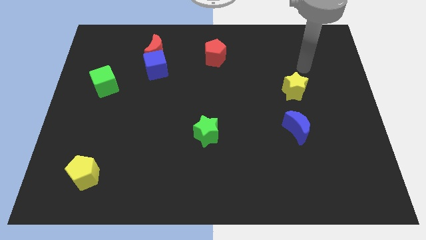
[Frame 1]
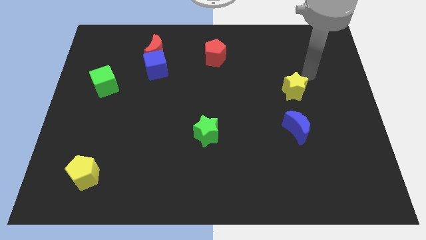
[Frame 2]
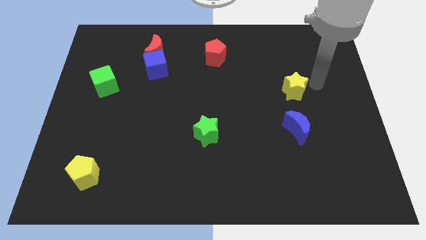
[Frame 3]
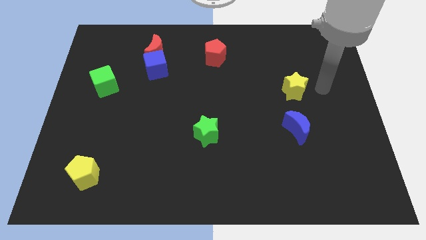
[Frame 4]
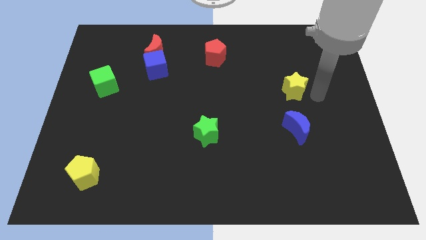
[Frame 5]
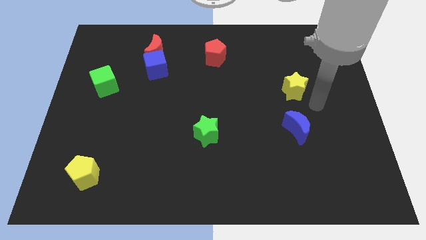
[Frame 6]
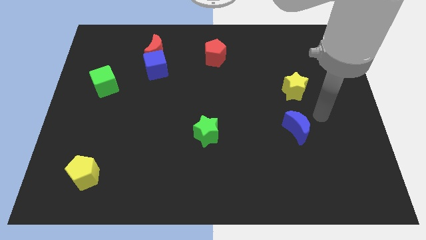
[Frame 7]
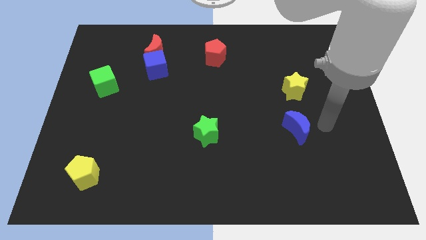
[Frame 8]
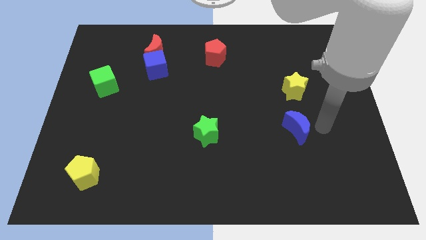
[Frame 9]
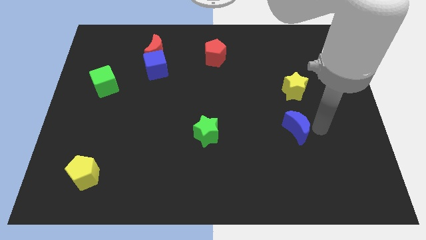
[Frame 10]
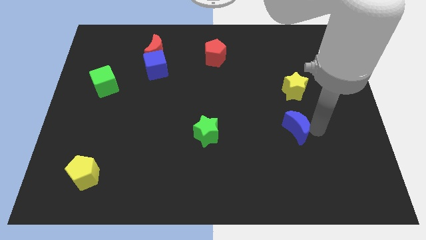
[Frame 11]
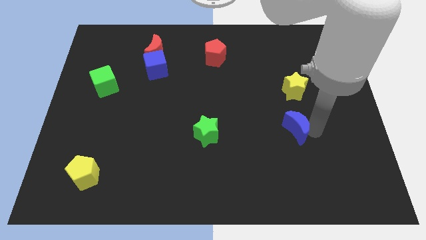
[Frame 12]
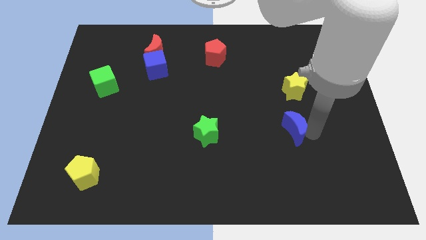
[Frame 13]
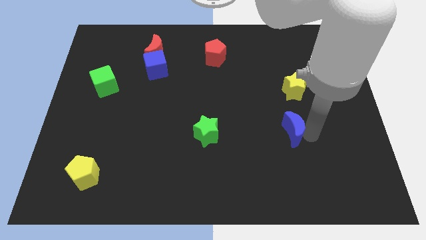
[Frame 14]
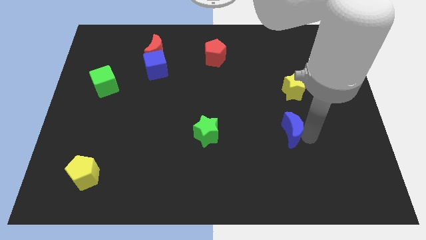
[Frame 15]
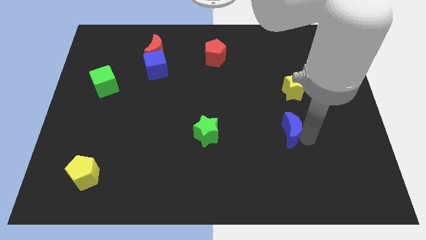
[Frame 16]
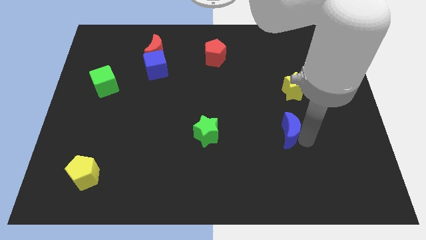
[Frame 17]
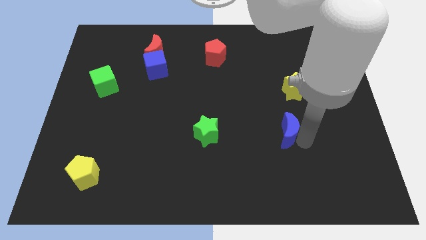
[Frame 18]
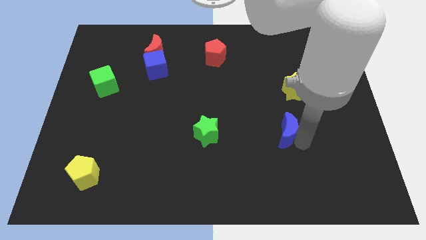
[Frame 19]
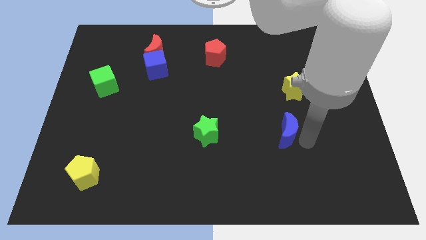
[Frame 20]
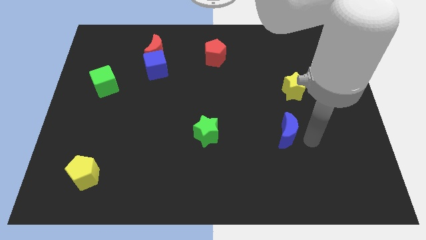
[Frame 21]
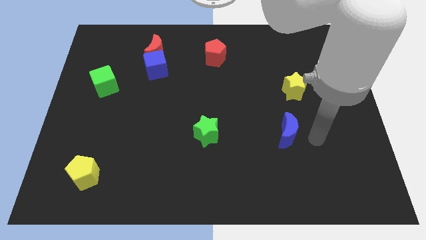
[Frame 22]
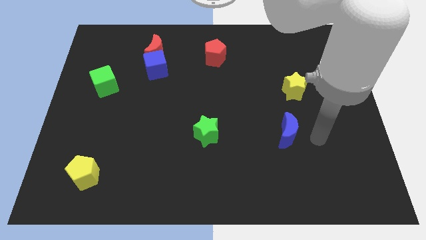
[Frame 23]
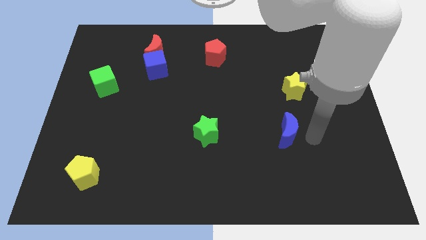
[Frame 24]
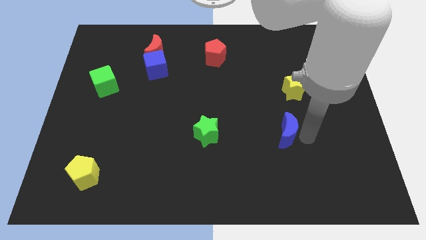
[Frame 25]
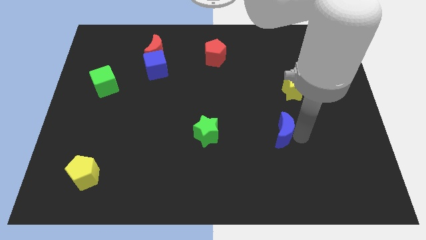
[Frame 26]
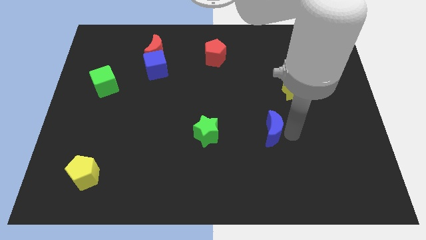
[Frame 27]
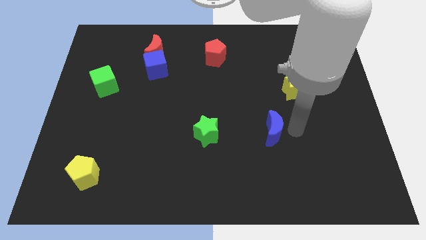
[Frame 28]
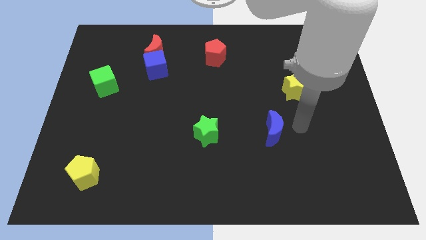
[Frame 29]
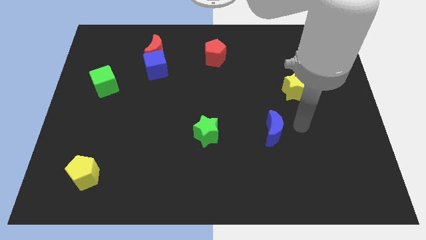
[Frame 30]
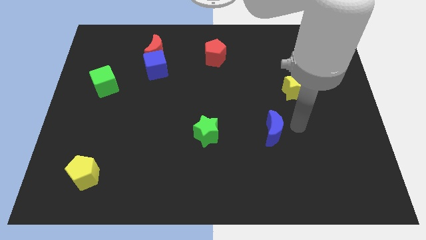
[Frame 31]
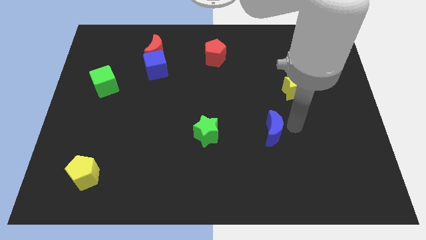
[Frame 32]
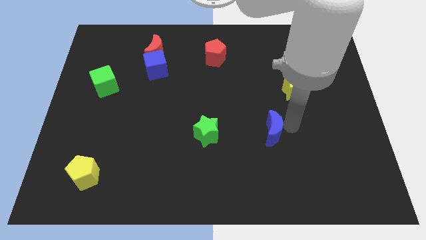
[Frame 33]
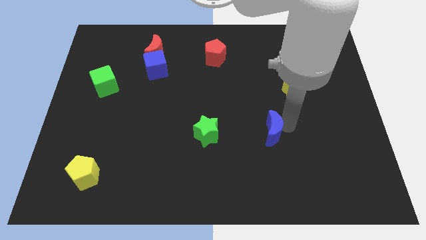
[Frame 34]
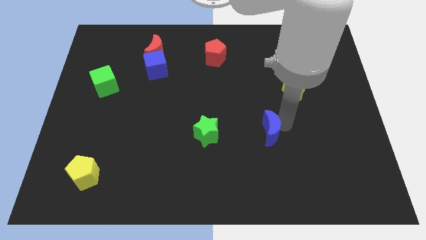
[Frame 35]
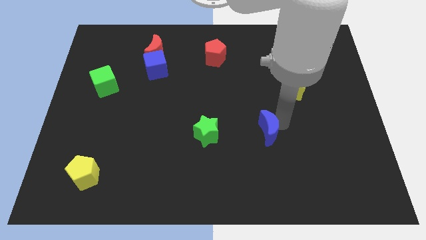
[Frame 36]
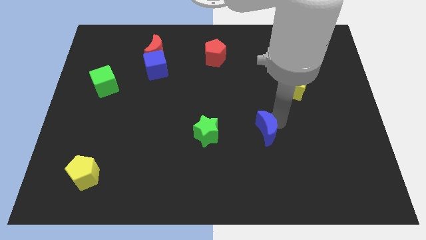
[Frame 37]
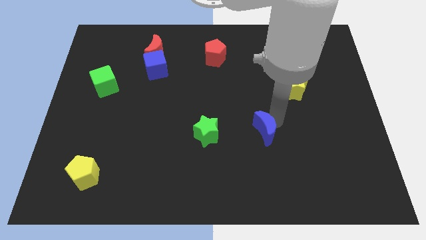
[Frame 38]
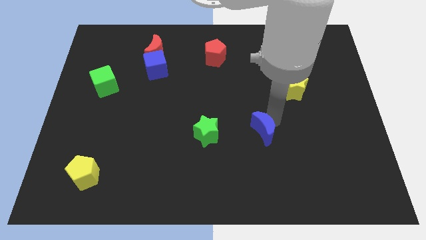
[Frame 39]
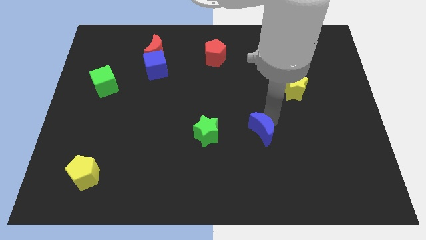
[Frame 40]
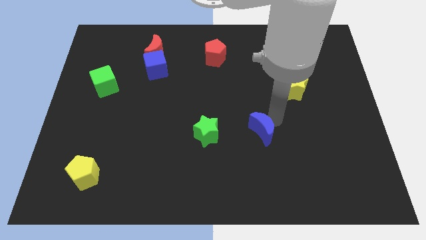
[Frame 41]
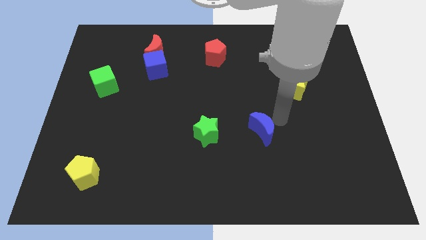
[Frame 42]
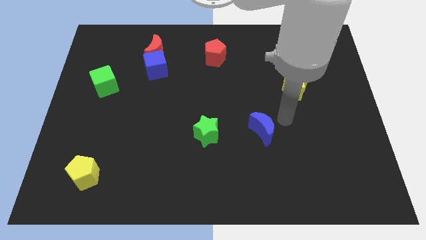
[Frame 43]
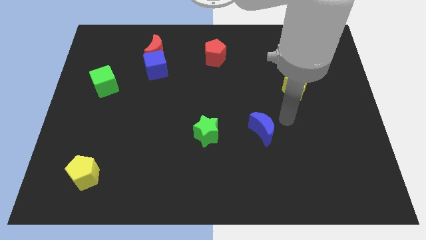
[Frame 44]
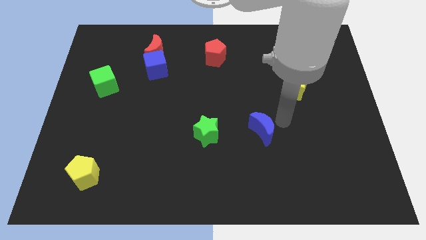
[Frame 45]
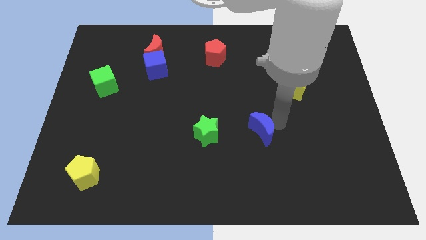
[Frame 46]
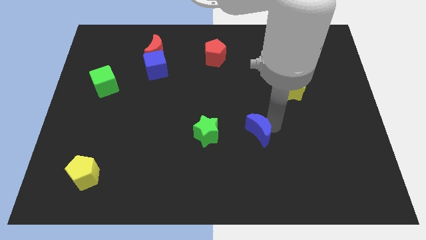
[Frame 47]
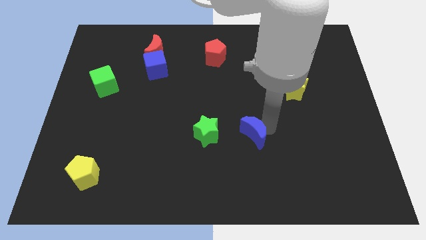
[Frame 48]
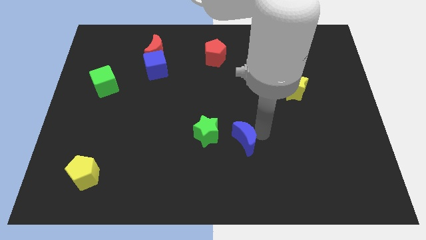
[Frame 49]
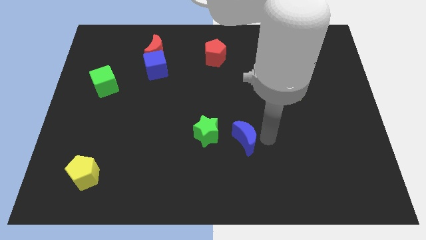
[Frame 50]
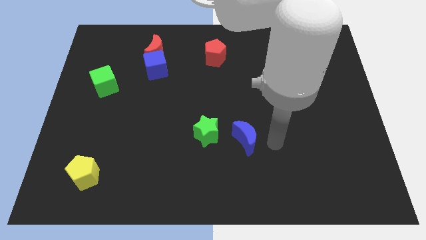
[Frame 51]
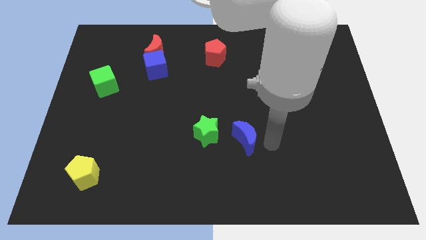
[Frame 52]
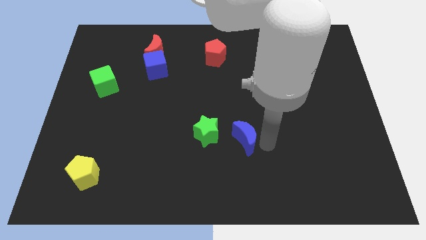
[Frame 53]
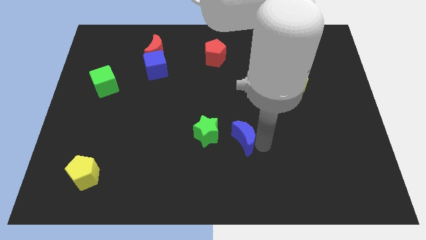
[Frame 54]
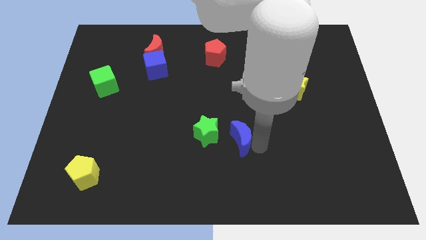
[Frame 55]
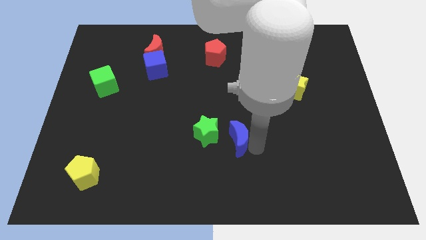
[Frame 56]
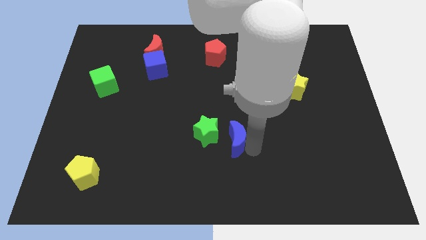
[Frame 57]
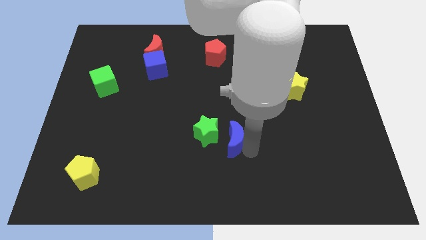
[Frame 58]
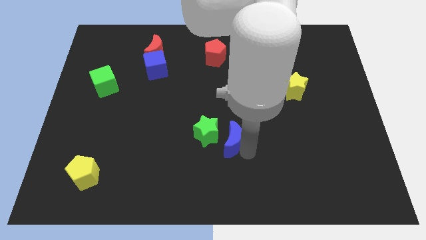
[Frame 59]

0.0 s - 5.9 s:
push the blue moon close to the green star

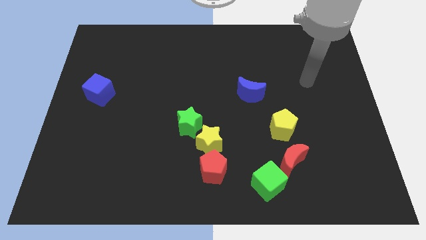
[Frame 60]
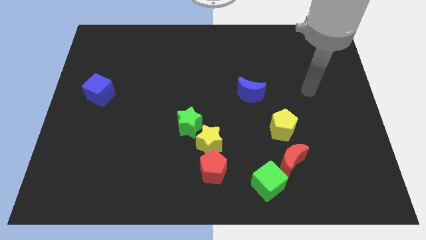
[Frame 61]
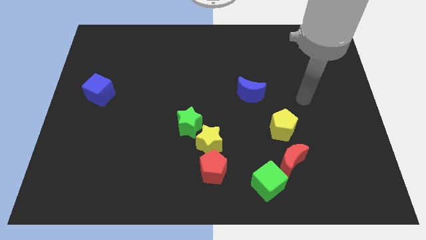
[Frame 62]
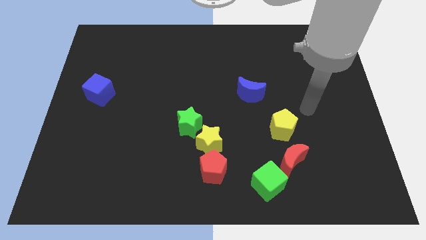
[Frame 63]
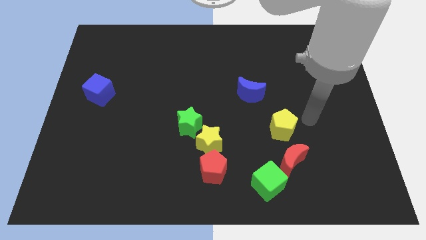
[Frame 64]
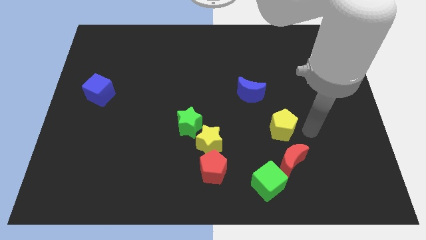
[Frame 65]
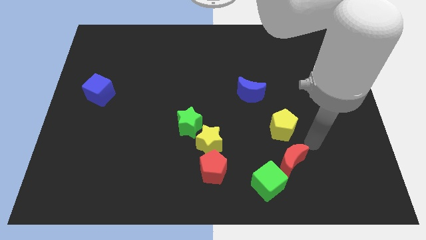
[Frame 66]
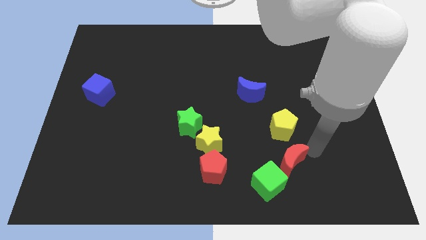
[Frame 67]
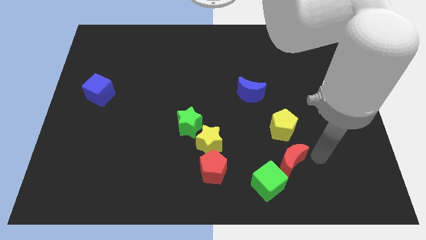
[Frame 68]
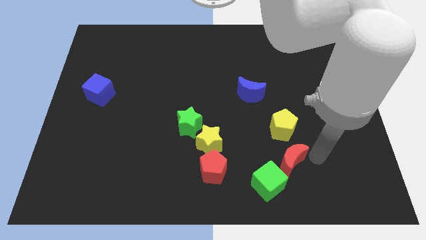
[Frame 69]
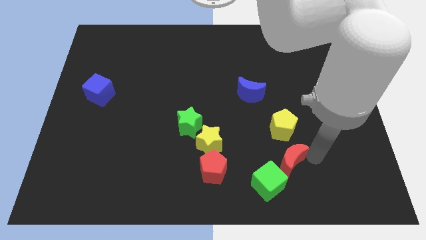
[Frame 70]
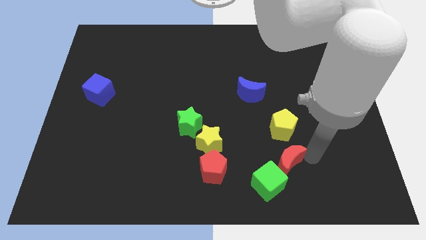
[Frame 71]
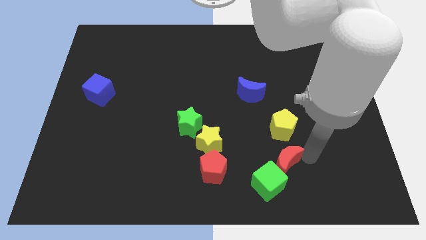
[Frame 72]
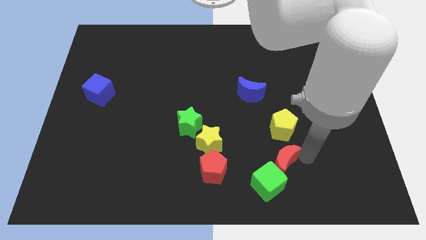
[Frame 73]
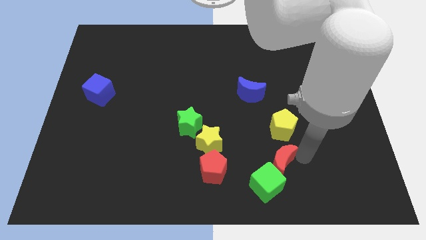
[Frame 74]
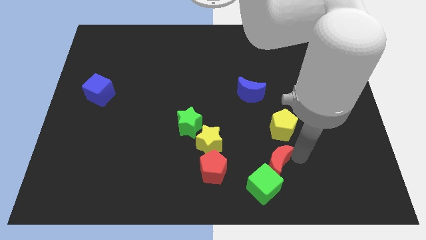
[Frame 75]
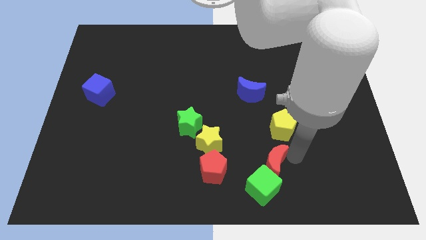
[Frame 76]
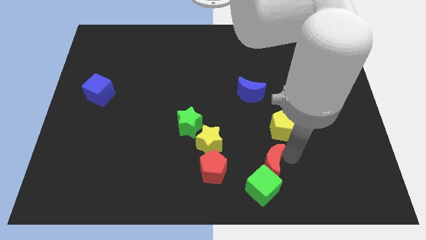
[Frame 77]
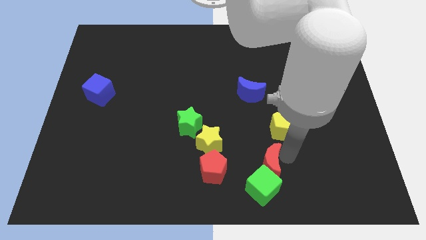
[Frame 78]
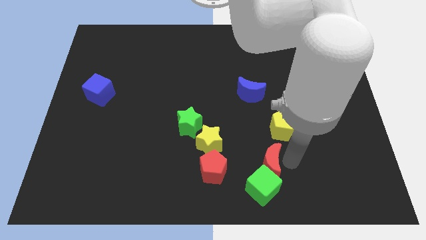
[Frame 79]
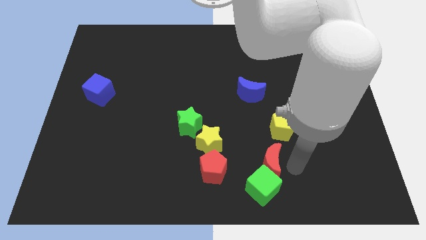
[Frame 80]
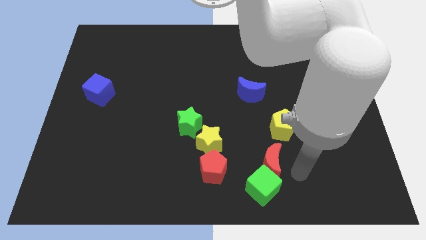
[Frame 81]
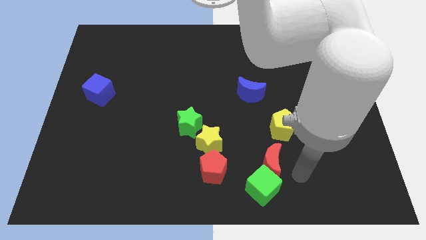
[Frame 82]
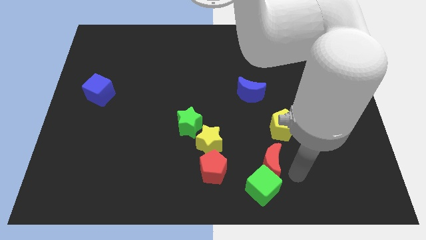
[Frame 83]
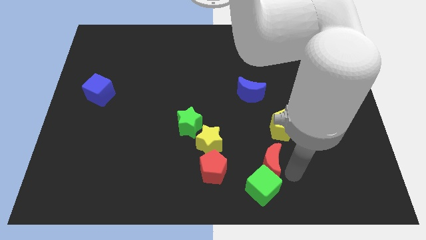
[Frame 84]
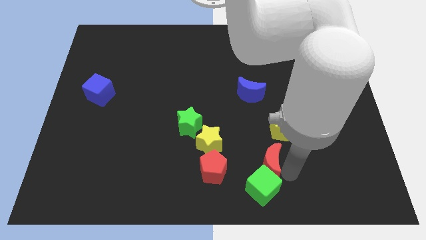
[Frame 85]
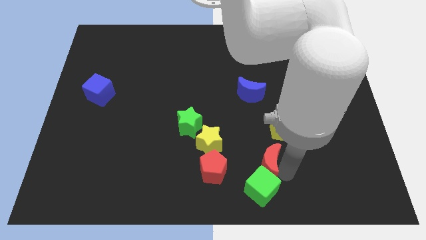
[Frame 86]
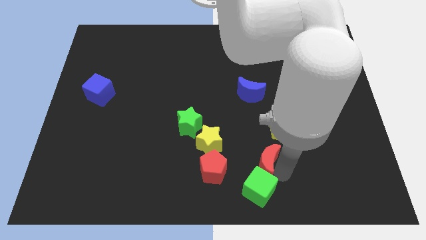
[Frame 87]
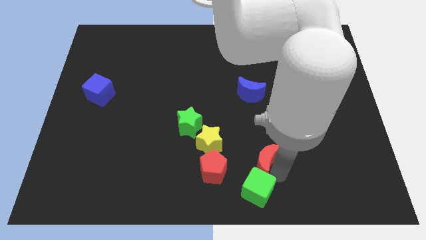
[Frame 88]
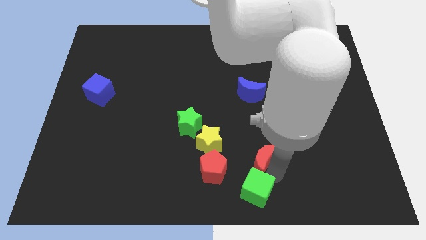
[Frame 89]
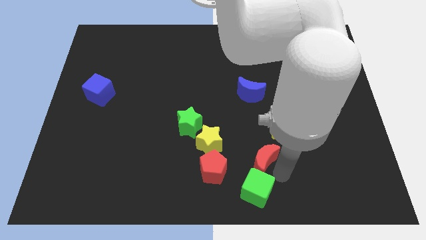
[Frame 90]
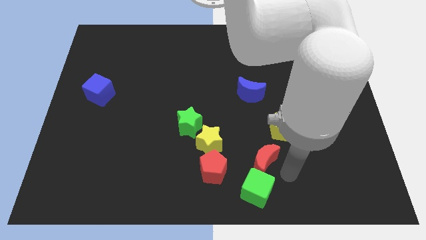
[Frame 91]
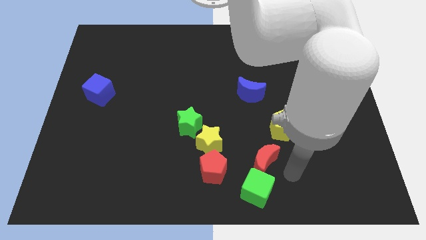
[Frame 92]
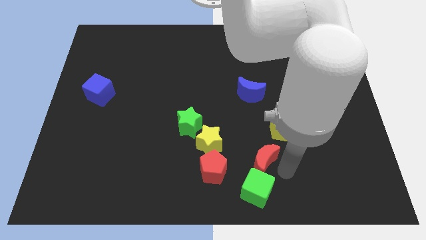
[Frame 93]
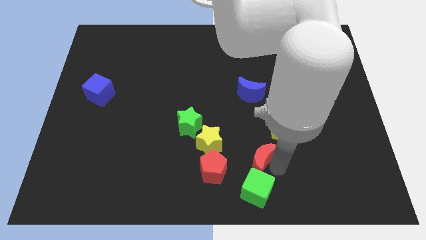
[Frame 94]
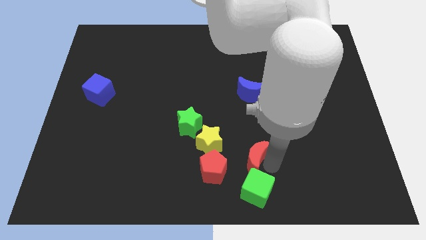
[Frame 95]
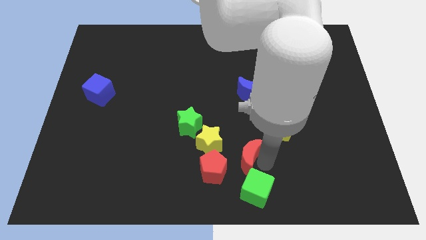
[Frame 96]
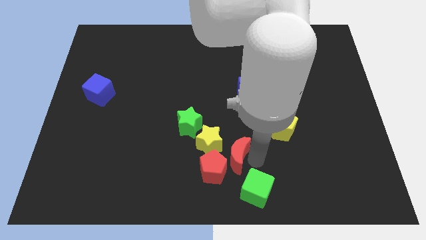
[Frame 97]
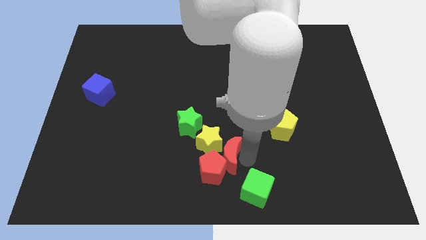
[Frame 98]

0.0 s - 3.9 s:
slide the red moon next to the yellow star
